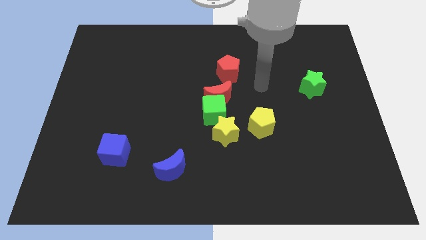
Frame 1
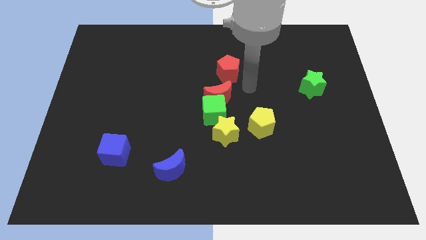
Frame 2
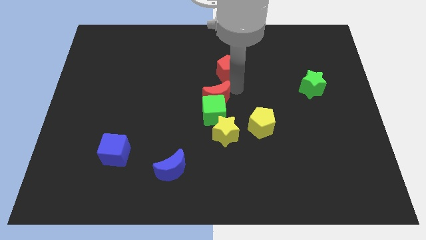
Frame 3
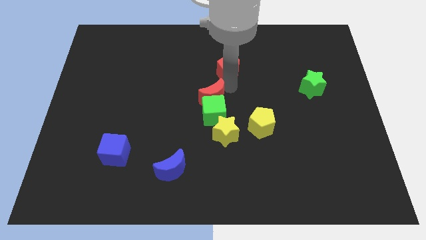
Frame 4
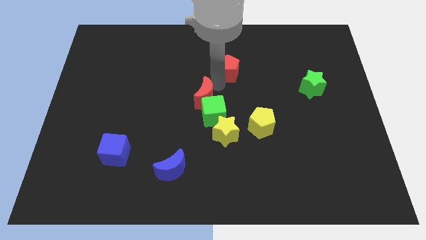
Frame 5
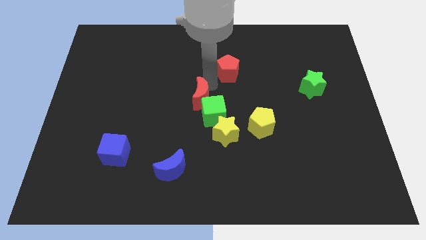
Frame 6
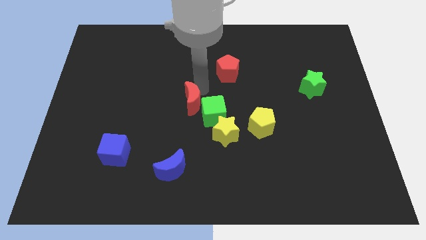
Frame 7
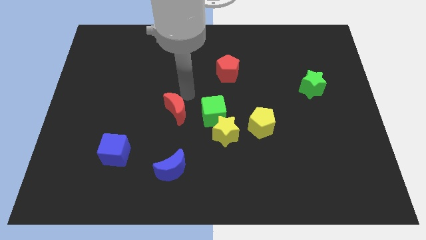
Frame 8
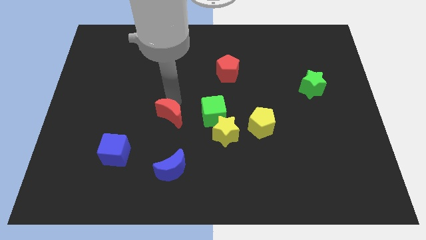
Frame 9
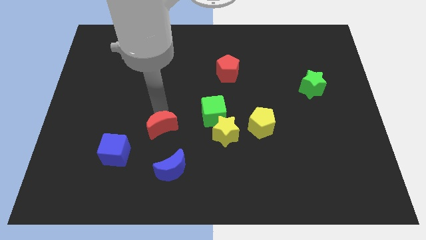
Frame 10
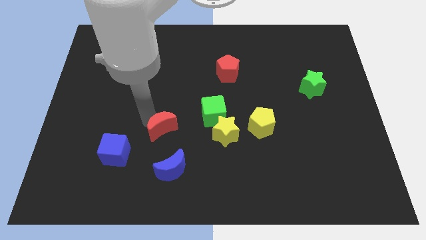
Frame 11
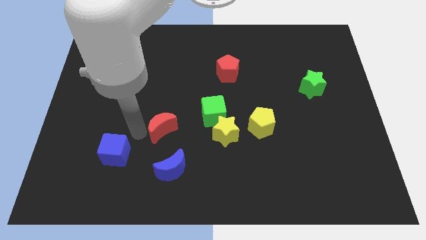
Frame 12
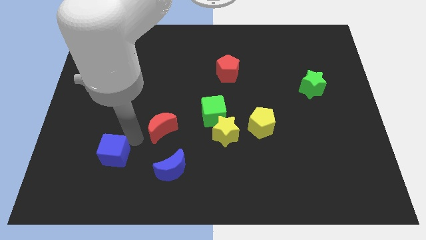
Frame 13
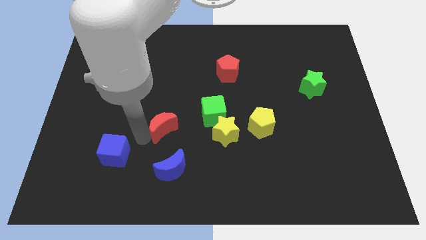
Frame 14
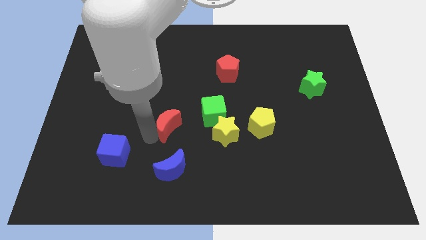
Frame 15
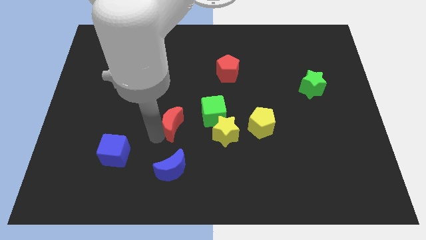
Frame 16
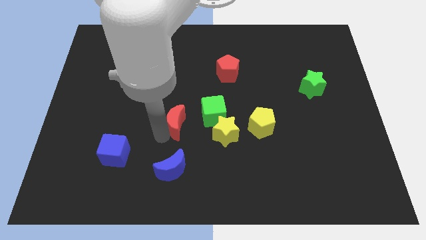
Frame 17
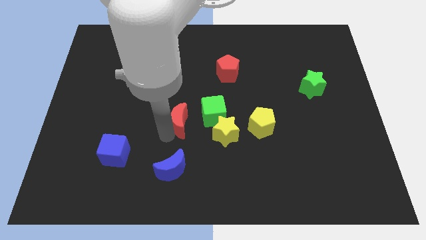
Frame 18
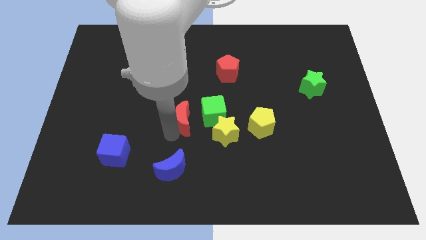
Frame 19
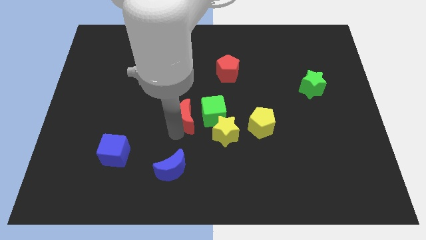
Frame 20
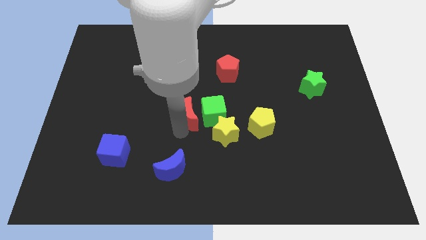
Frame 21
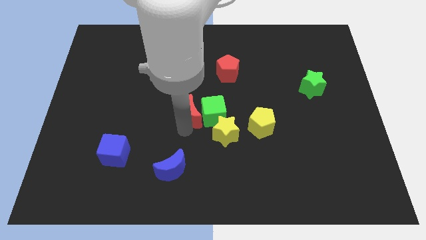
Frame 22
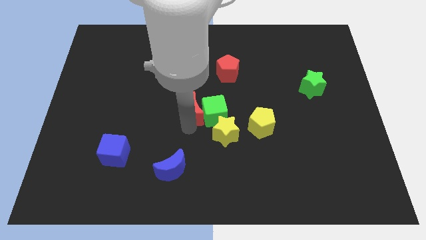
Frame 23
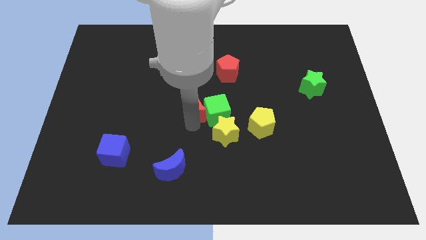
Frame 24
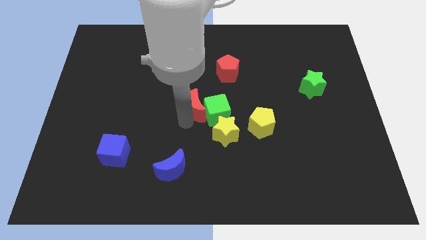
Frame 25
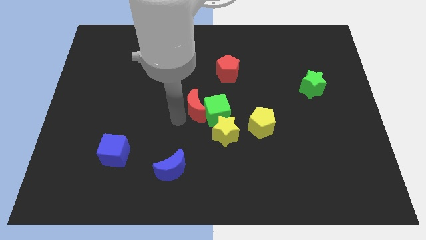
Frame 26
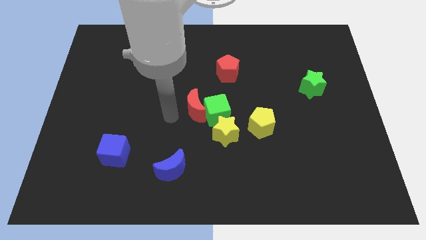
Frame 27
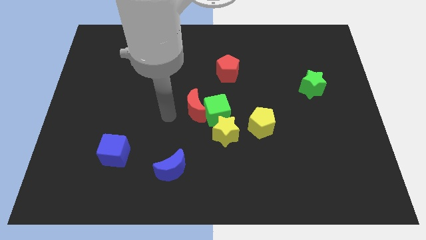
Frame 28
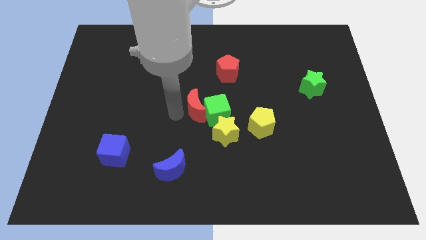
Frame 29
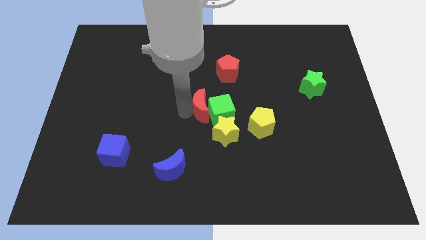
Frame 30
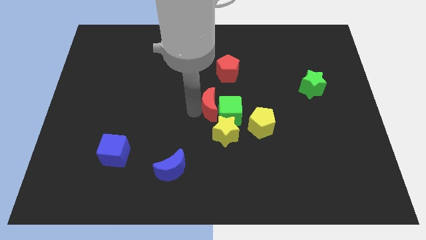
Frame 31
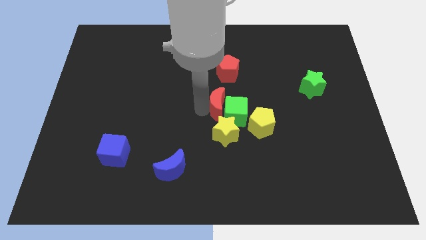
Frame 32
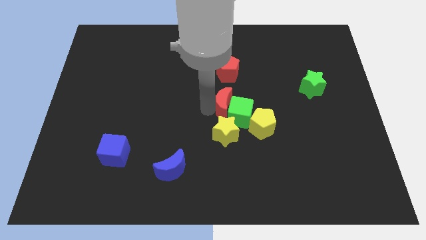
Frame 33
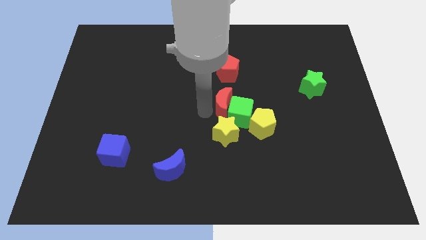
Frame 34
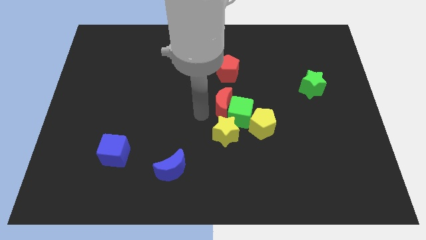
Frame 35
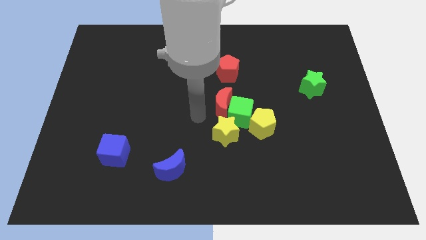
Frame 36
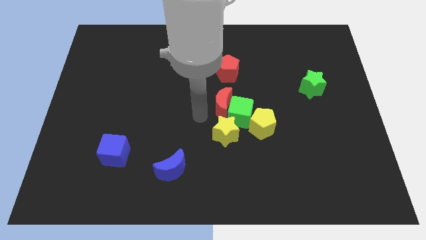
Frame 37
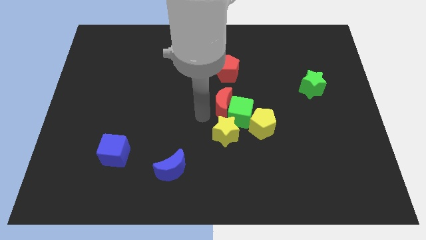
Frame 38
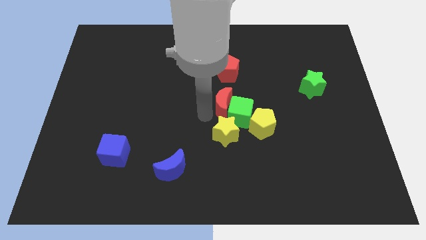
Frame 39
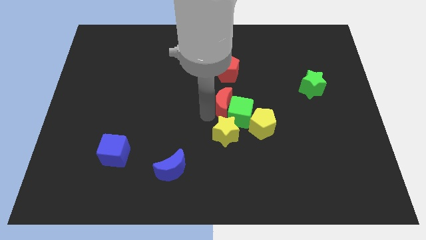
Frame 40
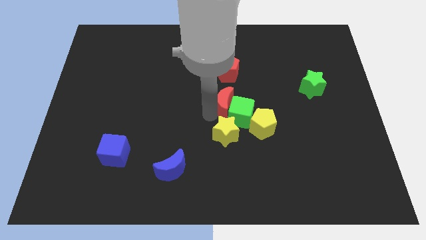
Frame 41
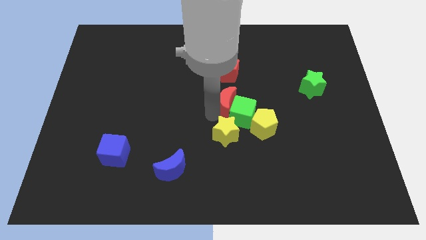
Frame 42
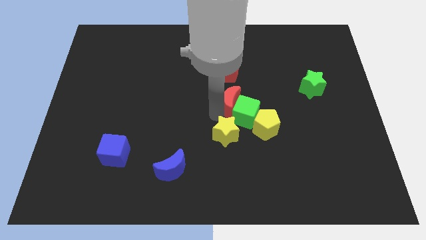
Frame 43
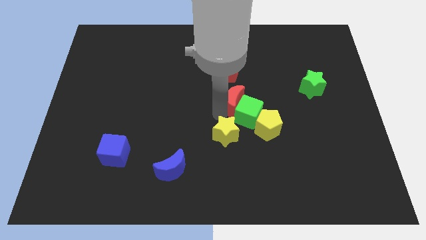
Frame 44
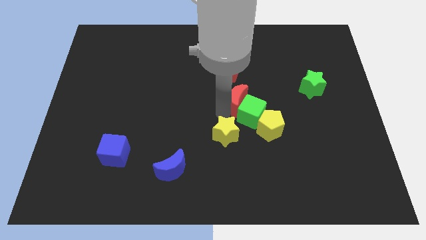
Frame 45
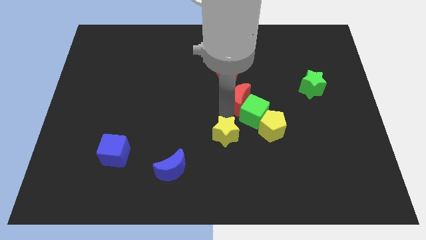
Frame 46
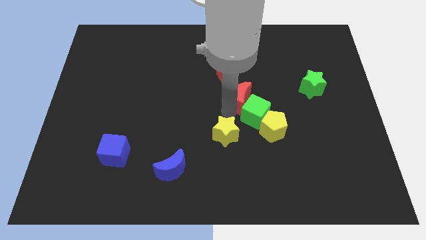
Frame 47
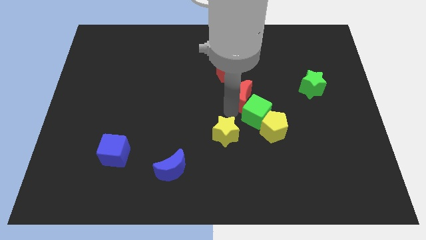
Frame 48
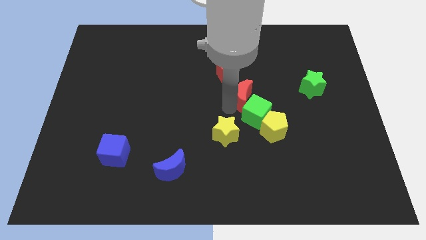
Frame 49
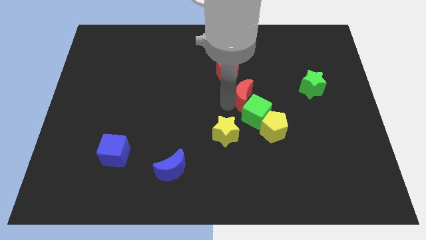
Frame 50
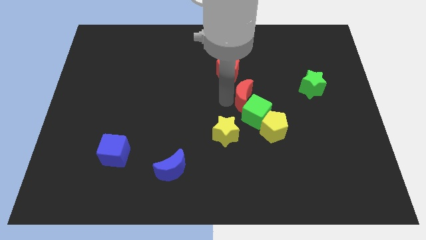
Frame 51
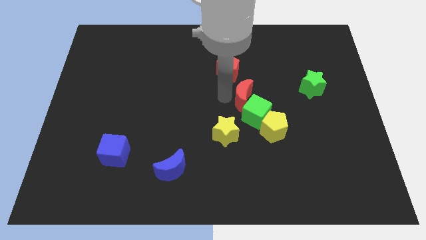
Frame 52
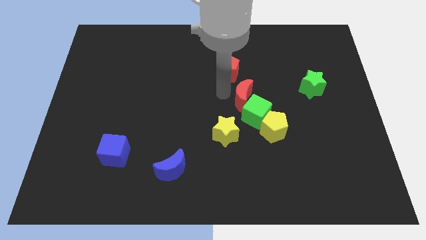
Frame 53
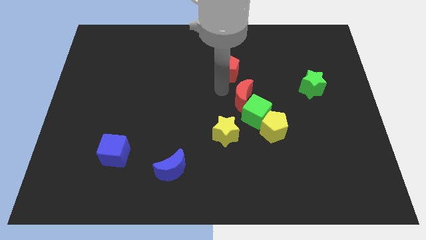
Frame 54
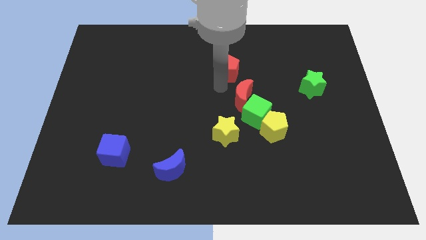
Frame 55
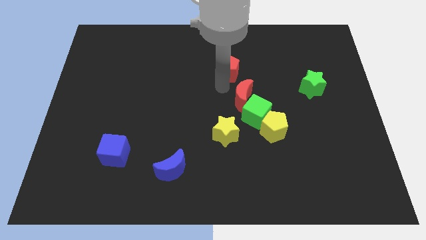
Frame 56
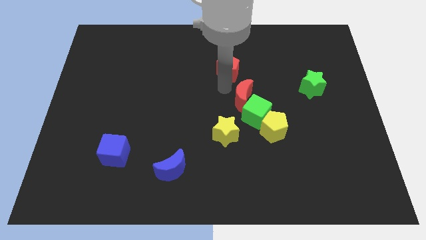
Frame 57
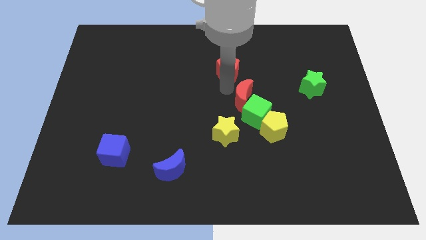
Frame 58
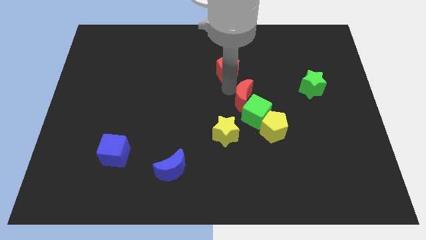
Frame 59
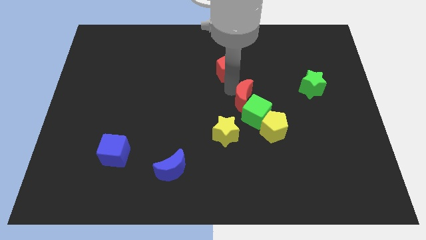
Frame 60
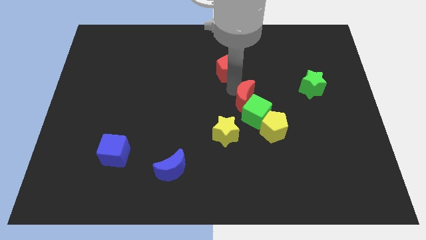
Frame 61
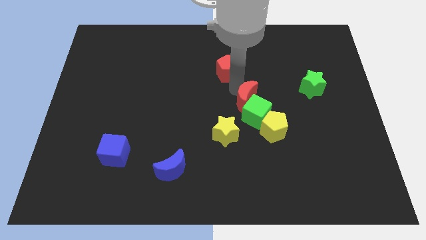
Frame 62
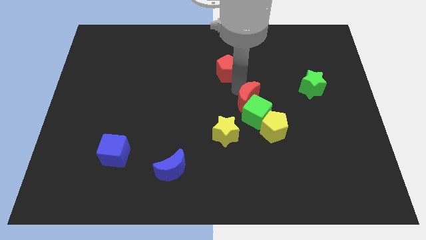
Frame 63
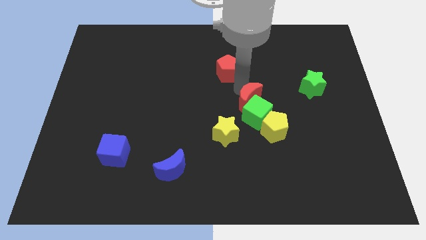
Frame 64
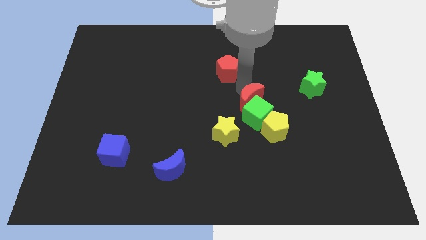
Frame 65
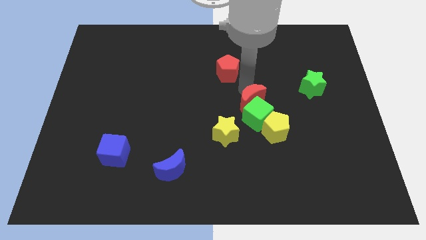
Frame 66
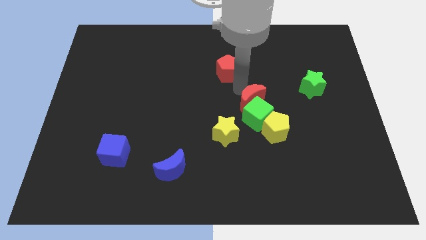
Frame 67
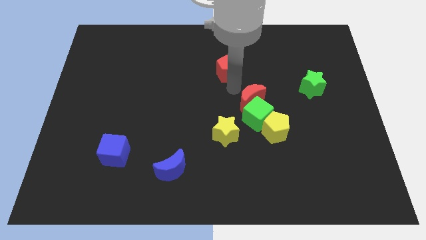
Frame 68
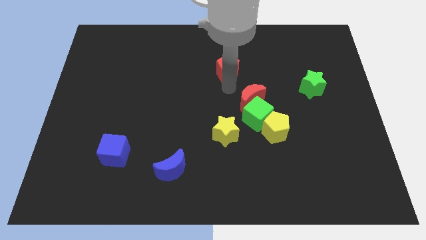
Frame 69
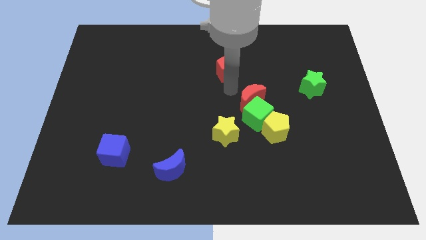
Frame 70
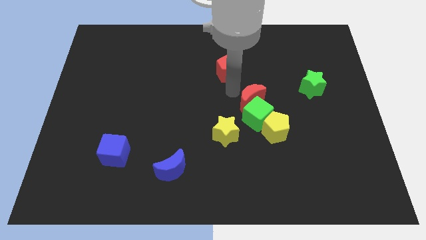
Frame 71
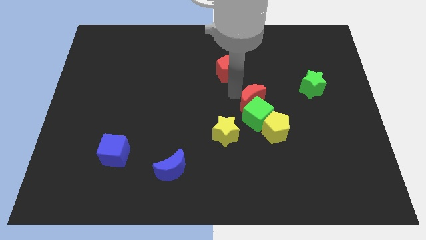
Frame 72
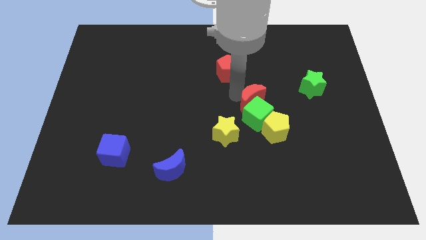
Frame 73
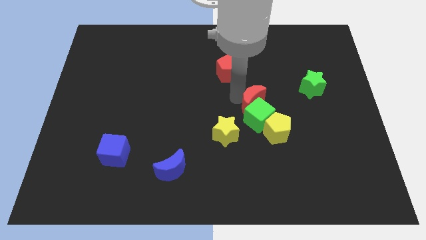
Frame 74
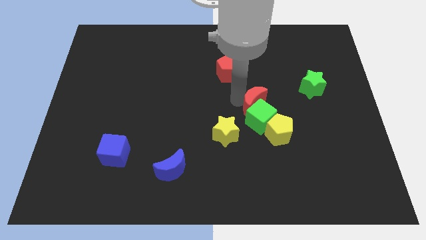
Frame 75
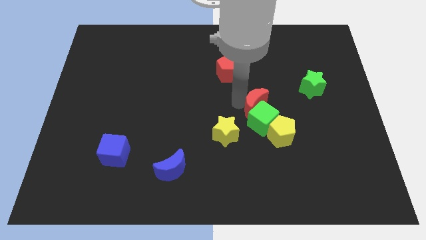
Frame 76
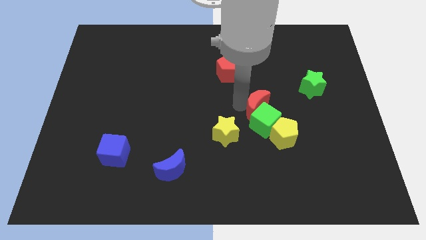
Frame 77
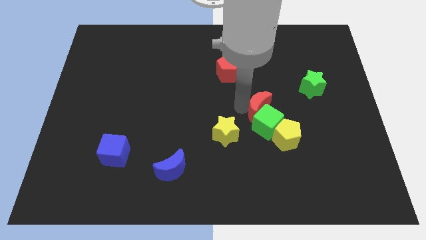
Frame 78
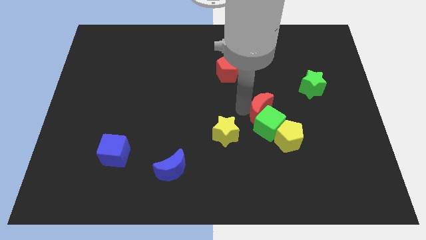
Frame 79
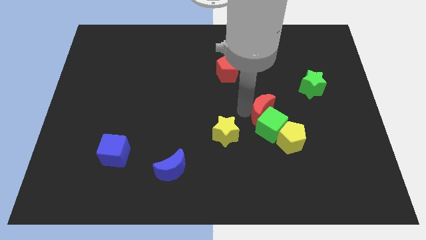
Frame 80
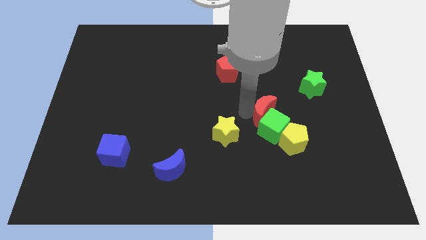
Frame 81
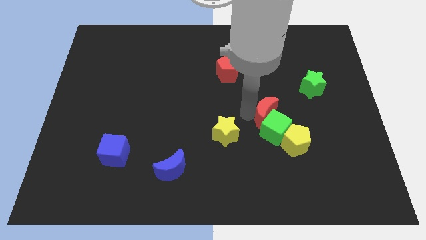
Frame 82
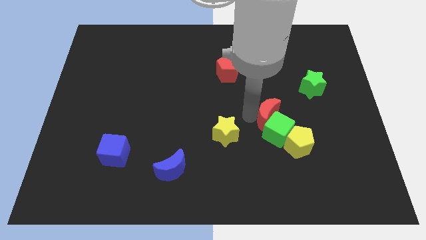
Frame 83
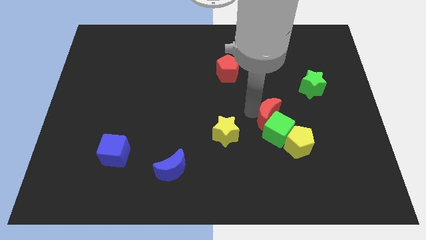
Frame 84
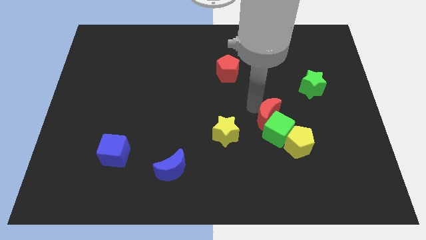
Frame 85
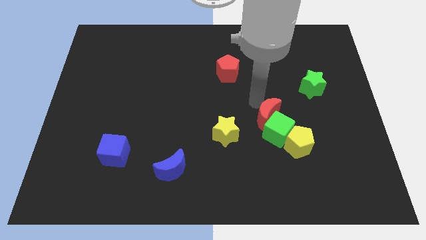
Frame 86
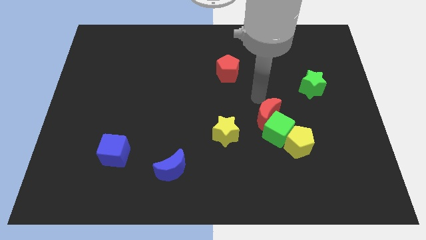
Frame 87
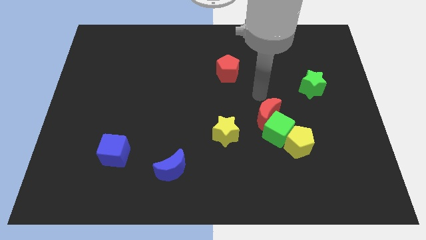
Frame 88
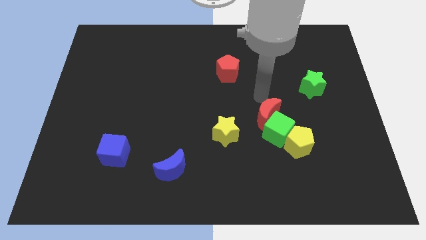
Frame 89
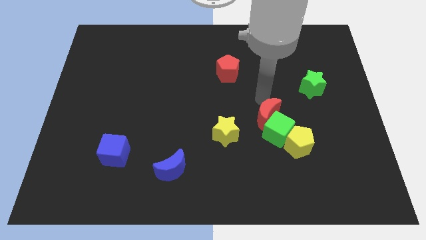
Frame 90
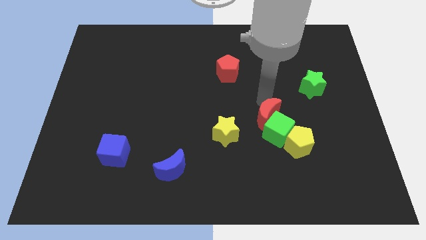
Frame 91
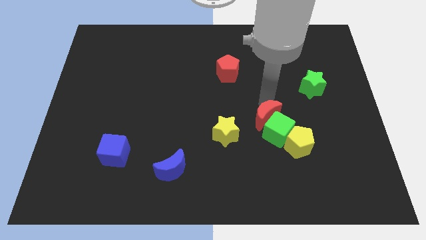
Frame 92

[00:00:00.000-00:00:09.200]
put the red moon just right of the yellow star
